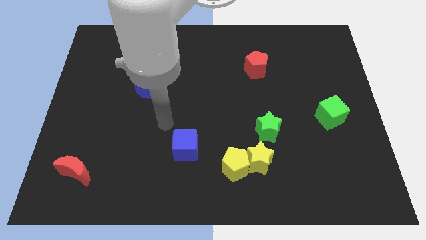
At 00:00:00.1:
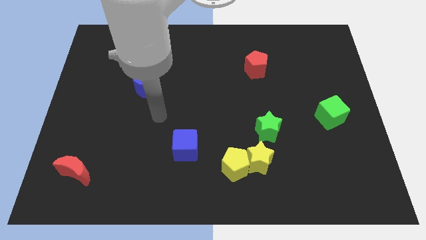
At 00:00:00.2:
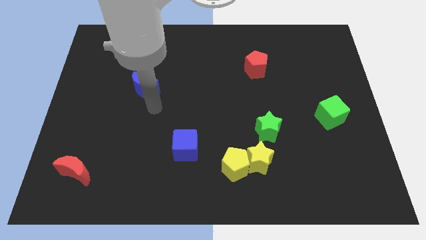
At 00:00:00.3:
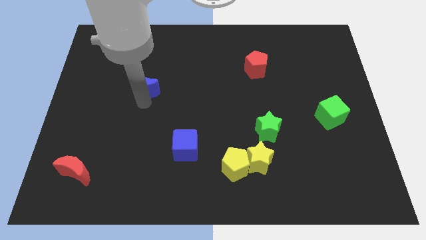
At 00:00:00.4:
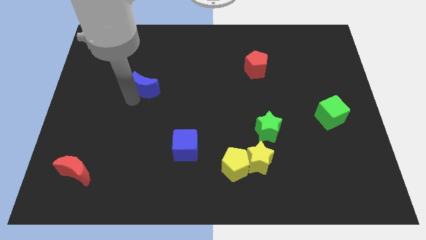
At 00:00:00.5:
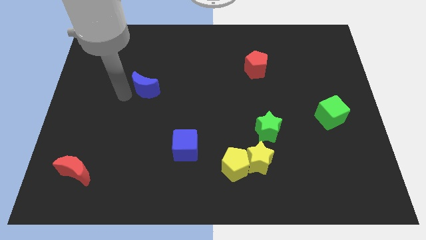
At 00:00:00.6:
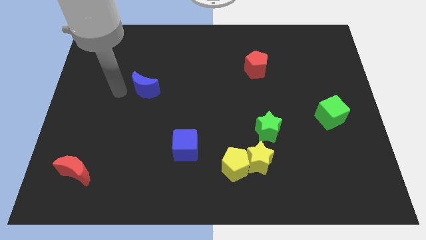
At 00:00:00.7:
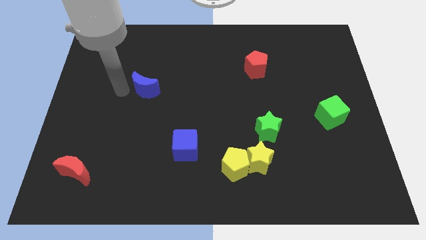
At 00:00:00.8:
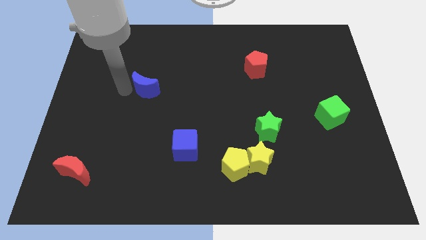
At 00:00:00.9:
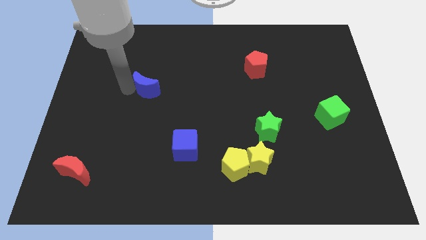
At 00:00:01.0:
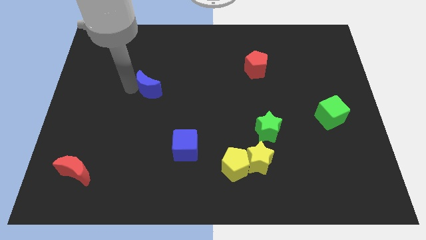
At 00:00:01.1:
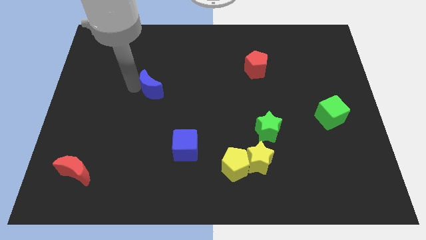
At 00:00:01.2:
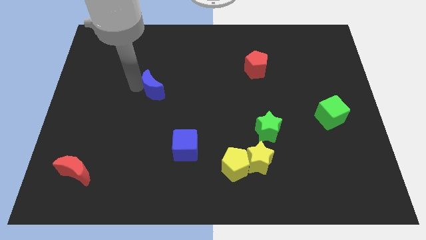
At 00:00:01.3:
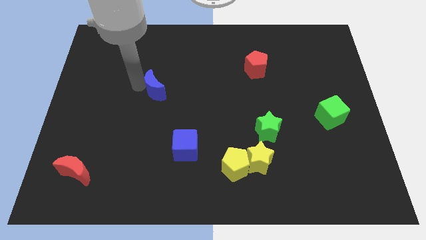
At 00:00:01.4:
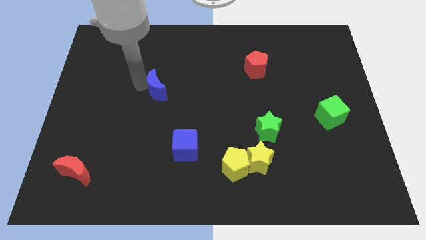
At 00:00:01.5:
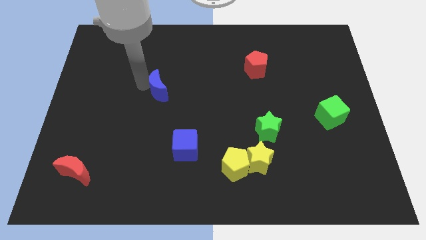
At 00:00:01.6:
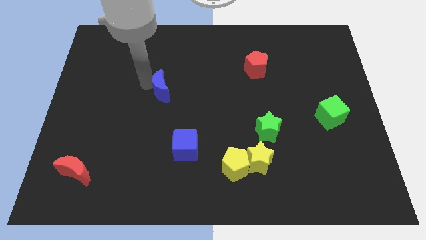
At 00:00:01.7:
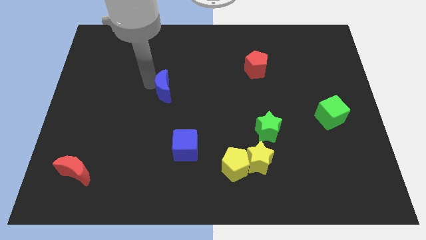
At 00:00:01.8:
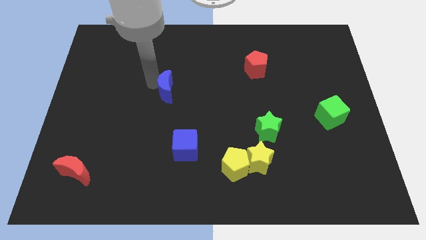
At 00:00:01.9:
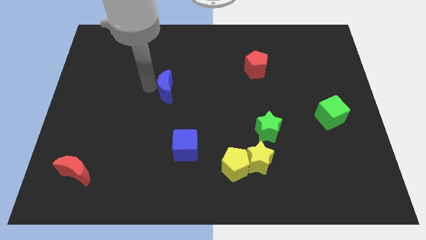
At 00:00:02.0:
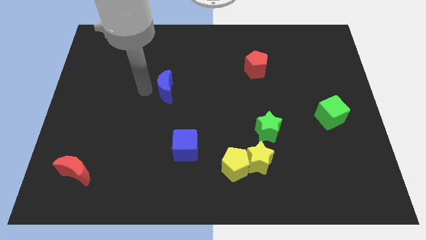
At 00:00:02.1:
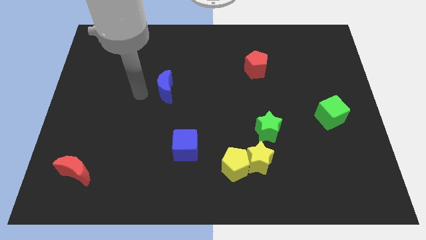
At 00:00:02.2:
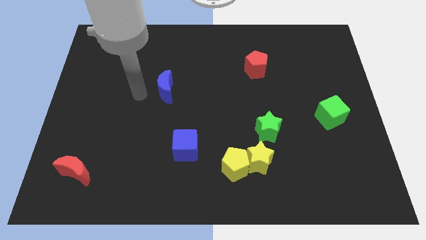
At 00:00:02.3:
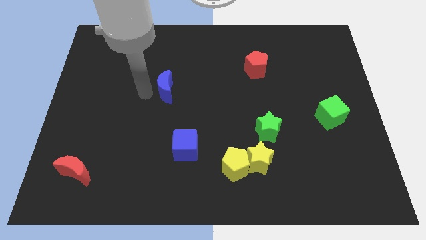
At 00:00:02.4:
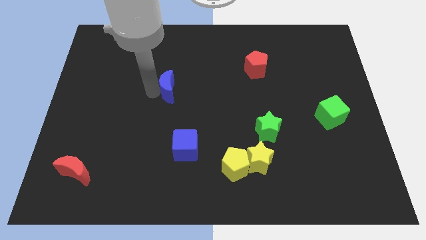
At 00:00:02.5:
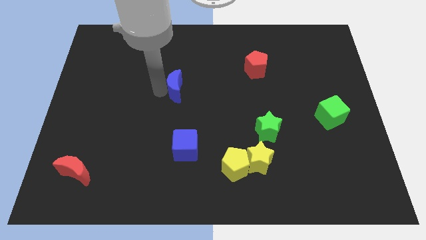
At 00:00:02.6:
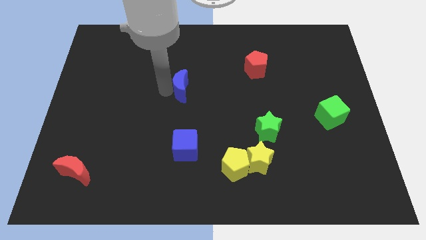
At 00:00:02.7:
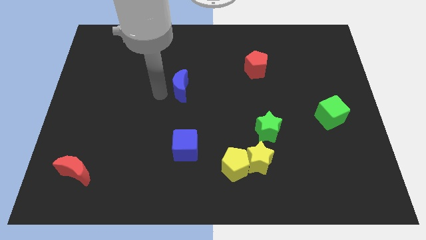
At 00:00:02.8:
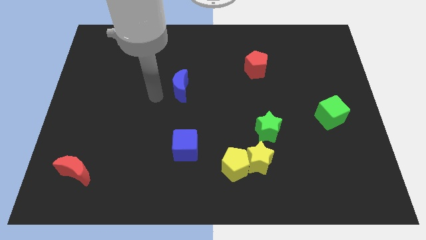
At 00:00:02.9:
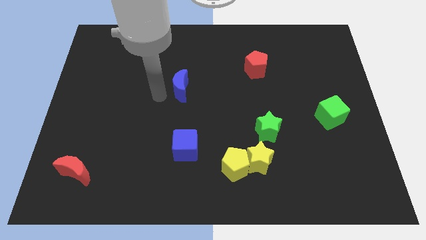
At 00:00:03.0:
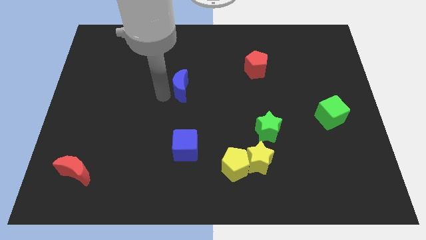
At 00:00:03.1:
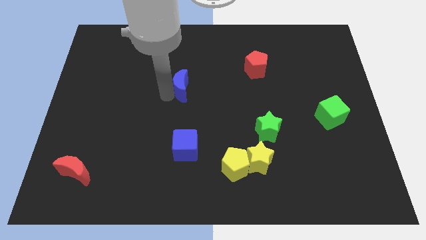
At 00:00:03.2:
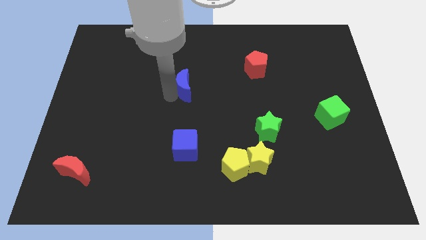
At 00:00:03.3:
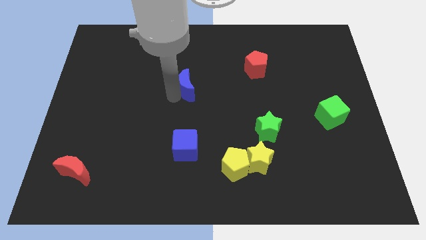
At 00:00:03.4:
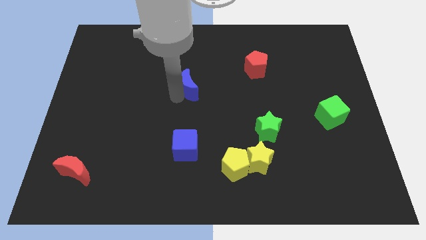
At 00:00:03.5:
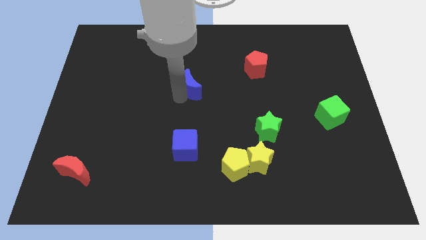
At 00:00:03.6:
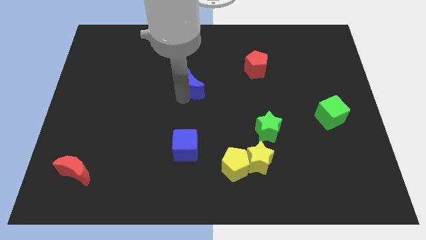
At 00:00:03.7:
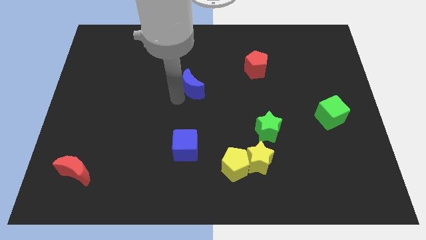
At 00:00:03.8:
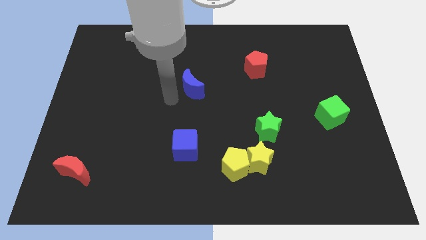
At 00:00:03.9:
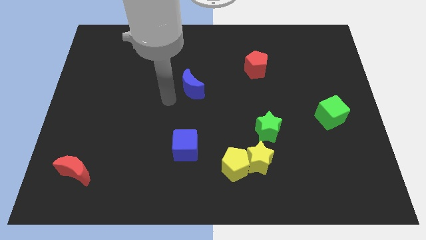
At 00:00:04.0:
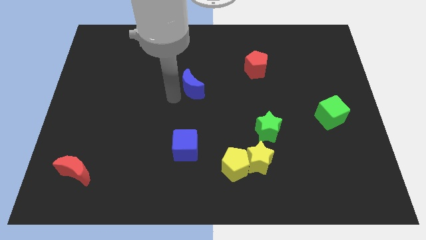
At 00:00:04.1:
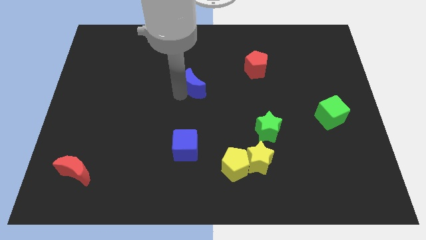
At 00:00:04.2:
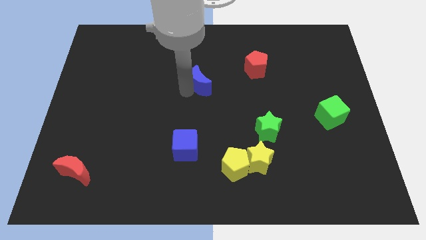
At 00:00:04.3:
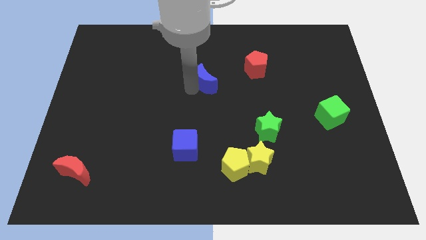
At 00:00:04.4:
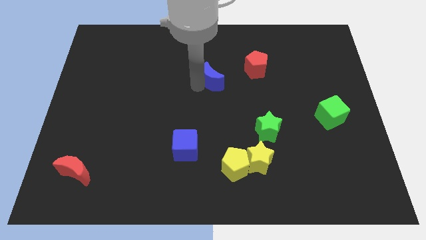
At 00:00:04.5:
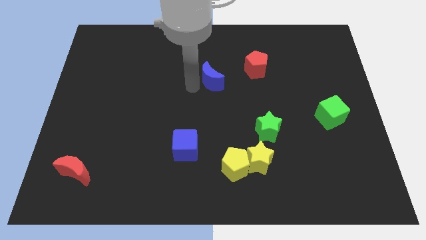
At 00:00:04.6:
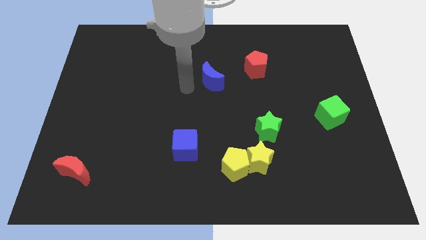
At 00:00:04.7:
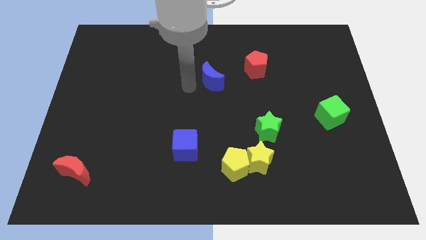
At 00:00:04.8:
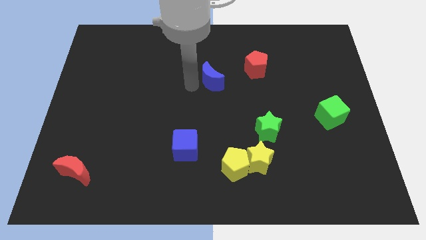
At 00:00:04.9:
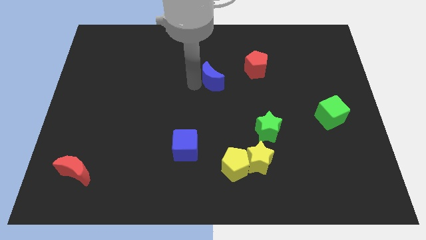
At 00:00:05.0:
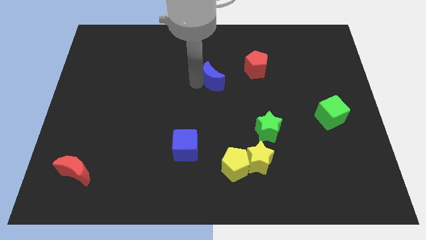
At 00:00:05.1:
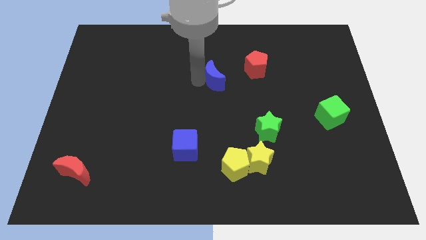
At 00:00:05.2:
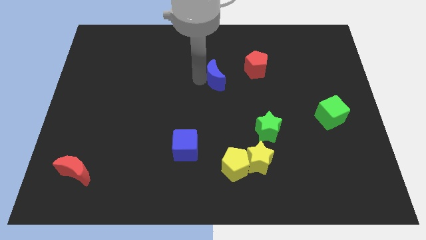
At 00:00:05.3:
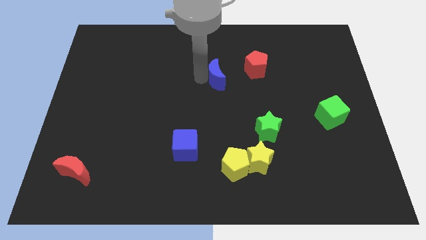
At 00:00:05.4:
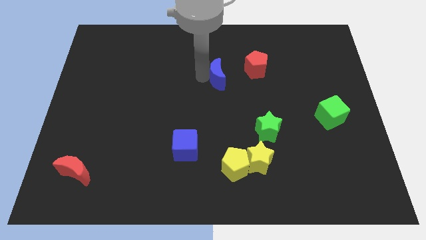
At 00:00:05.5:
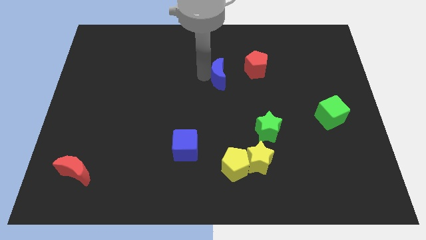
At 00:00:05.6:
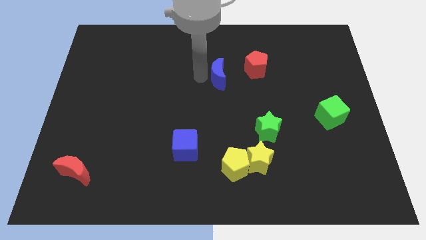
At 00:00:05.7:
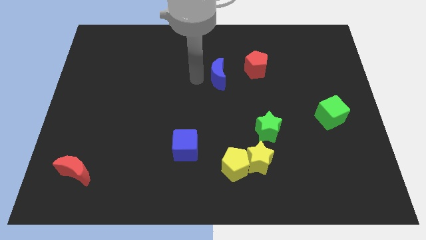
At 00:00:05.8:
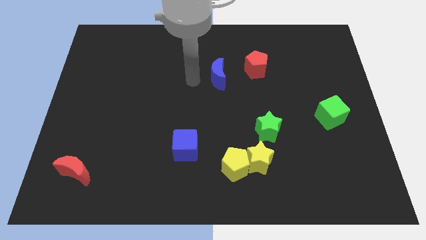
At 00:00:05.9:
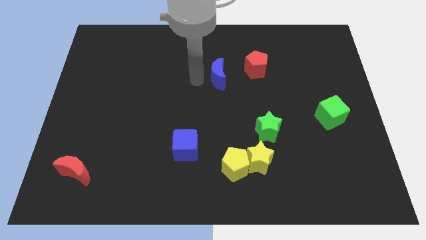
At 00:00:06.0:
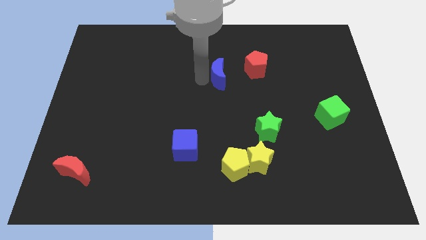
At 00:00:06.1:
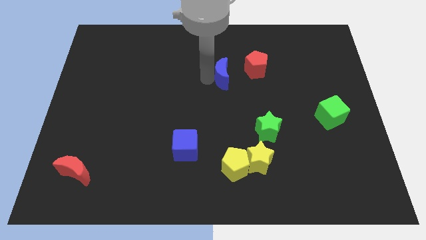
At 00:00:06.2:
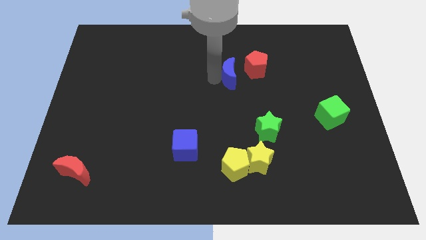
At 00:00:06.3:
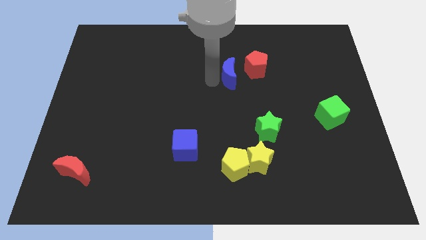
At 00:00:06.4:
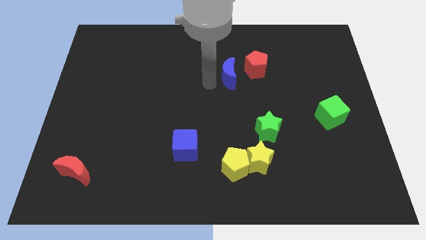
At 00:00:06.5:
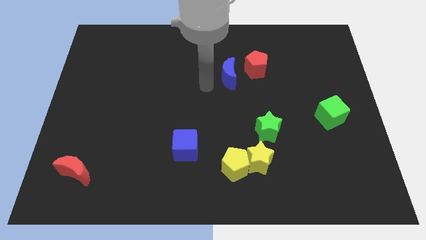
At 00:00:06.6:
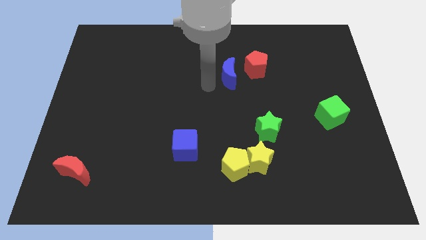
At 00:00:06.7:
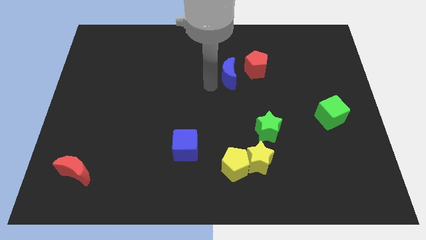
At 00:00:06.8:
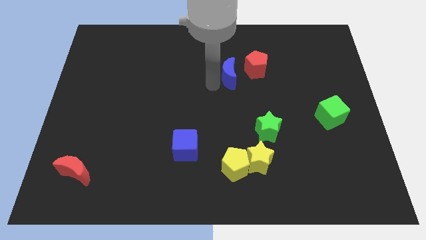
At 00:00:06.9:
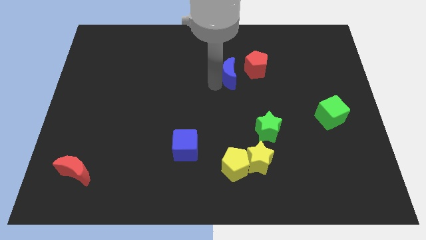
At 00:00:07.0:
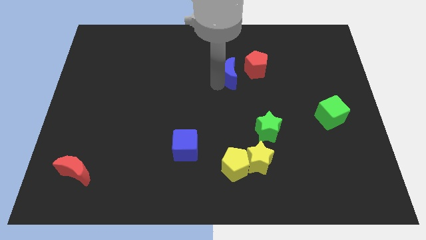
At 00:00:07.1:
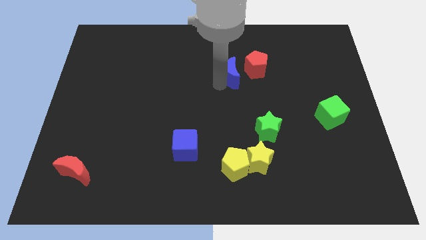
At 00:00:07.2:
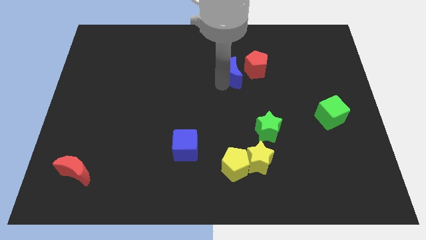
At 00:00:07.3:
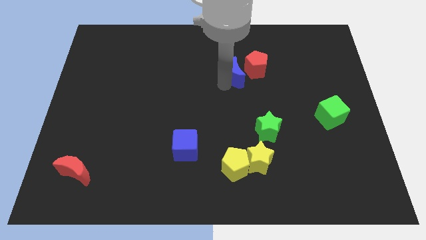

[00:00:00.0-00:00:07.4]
push the blue moon next to the red pentagon

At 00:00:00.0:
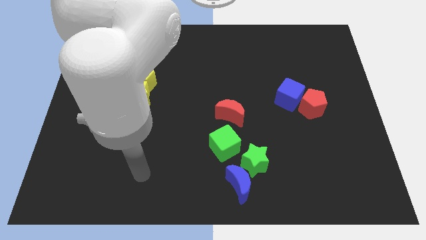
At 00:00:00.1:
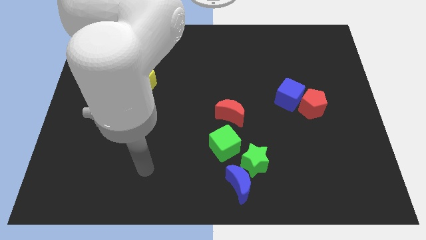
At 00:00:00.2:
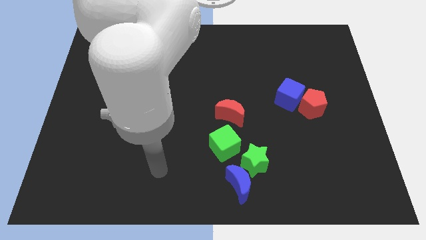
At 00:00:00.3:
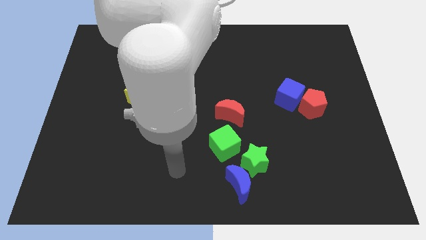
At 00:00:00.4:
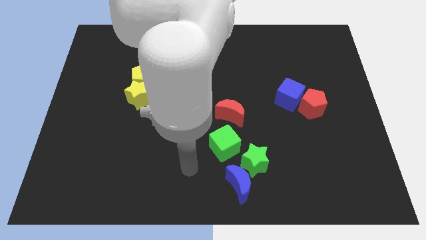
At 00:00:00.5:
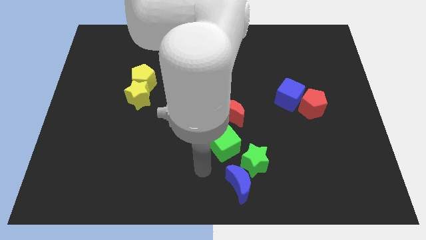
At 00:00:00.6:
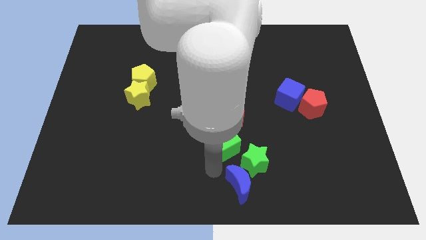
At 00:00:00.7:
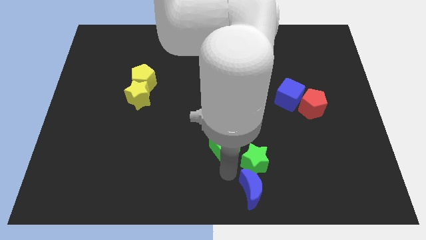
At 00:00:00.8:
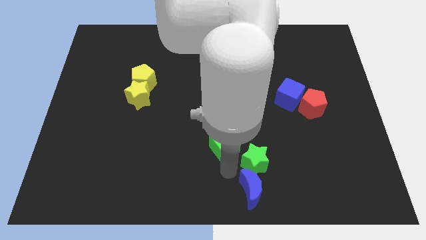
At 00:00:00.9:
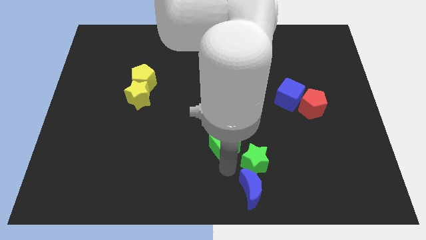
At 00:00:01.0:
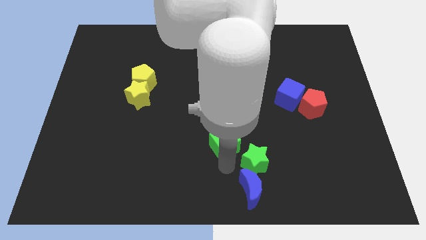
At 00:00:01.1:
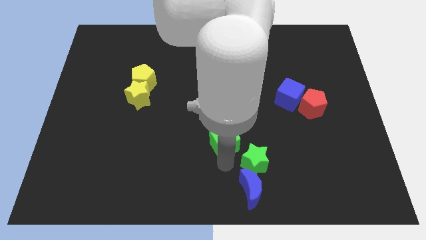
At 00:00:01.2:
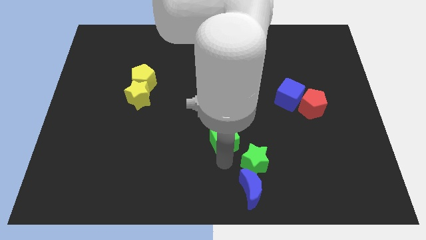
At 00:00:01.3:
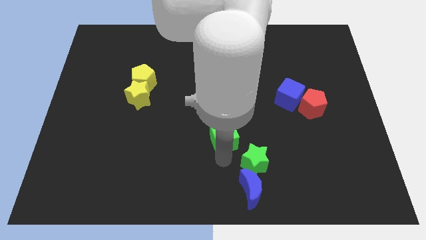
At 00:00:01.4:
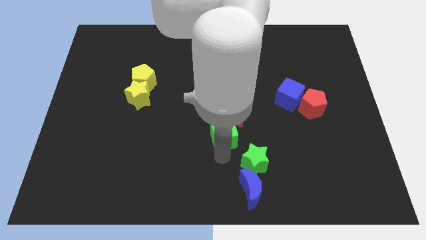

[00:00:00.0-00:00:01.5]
move the green cube close to the red moon
